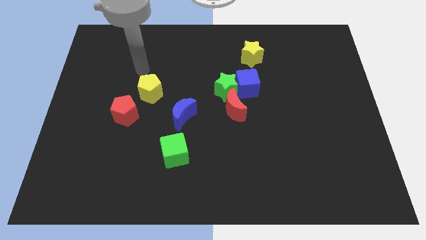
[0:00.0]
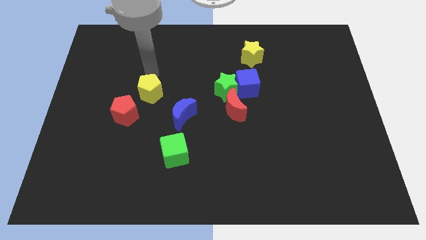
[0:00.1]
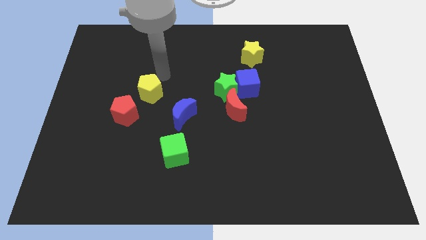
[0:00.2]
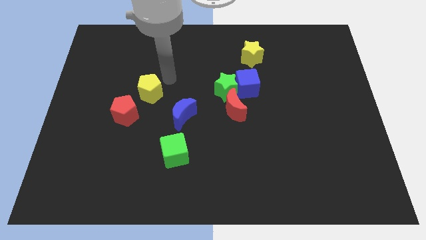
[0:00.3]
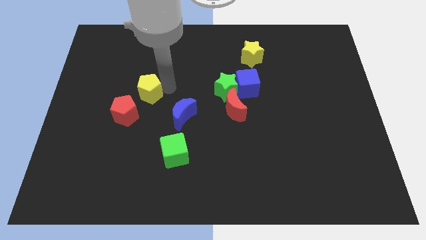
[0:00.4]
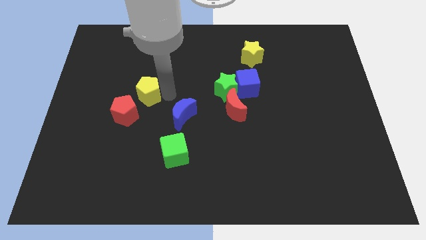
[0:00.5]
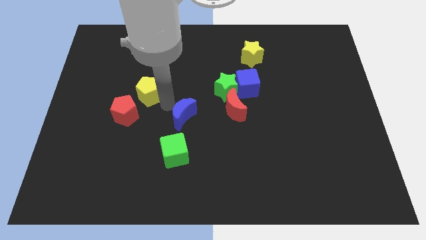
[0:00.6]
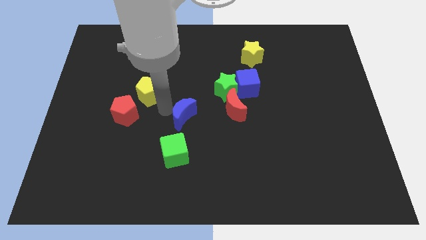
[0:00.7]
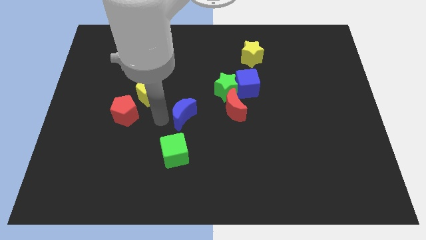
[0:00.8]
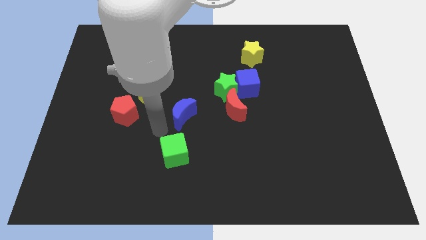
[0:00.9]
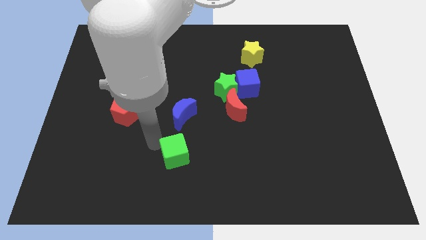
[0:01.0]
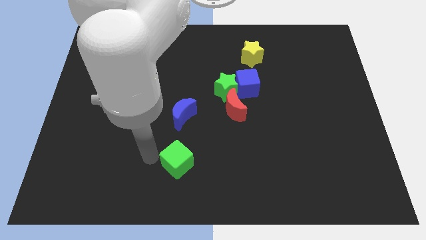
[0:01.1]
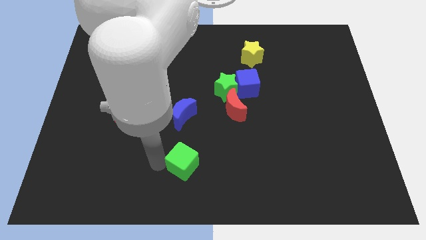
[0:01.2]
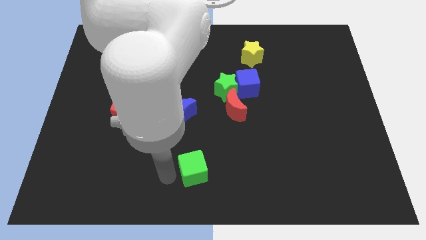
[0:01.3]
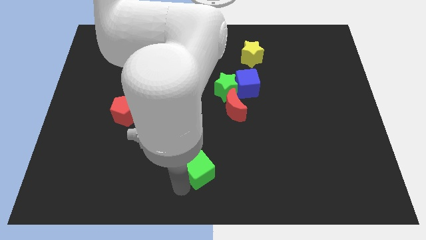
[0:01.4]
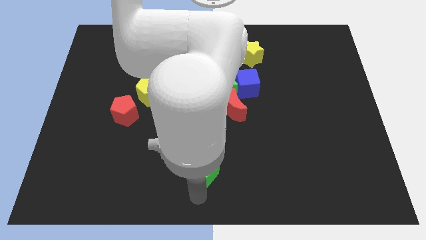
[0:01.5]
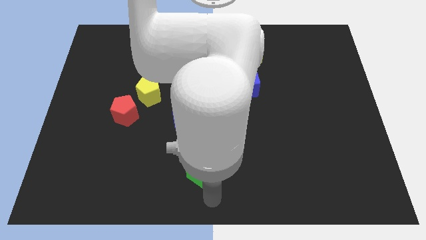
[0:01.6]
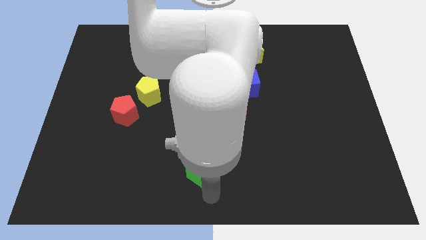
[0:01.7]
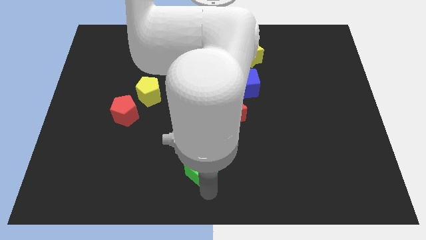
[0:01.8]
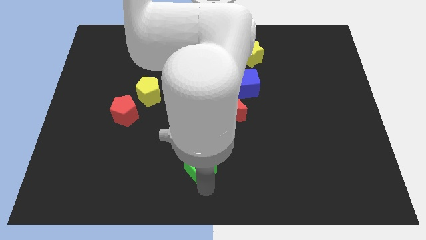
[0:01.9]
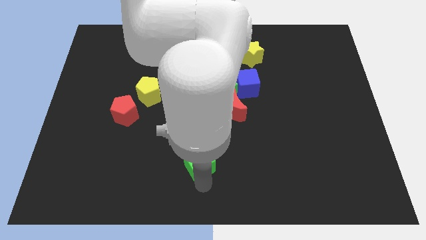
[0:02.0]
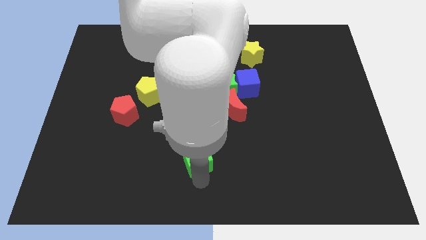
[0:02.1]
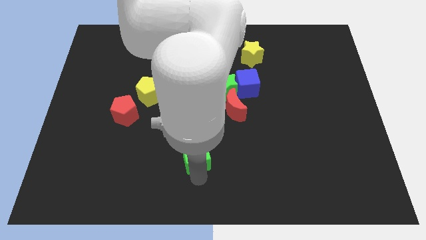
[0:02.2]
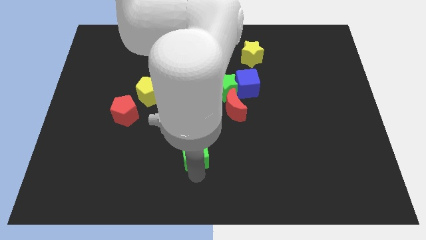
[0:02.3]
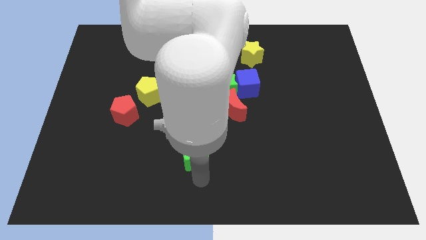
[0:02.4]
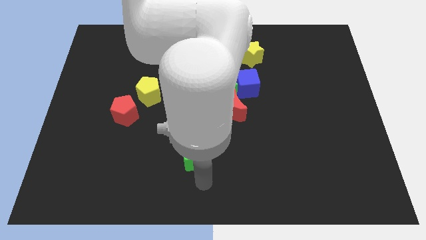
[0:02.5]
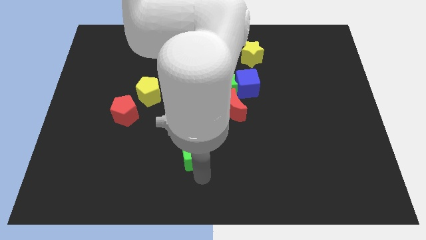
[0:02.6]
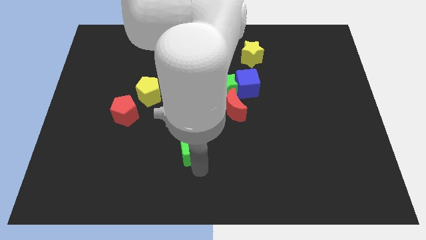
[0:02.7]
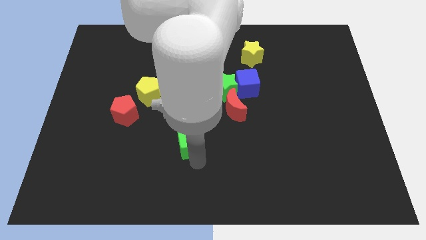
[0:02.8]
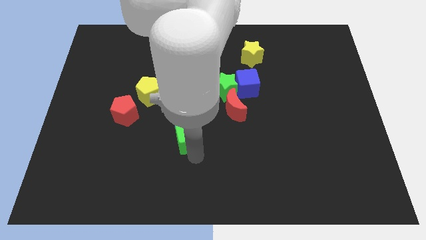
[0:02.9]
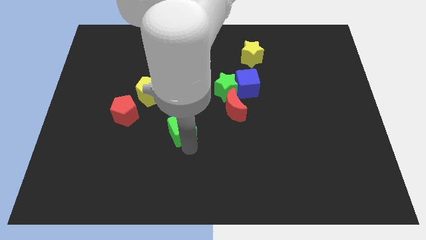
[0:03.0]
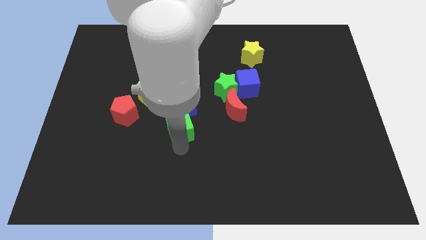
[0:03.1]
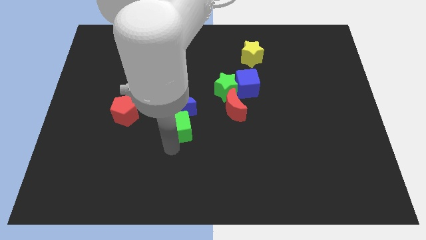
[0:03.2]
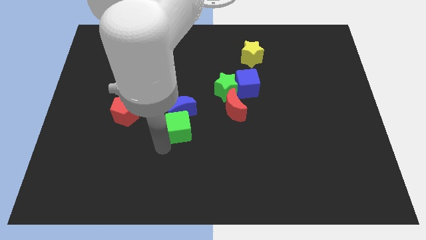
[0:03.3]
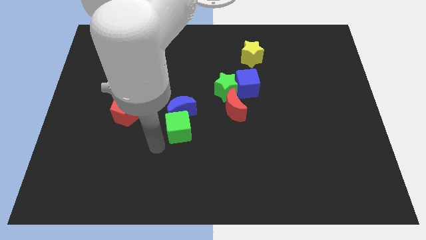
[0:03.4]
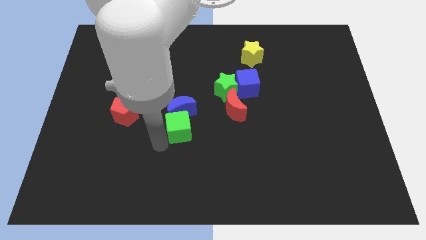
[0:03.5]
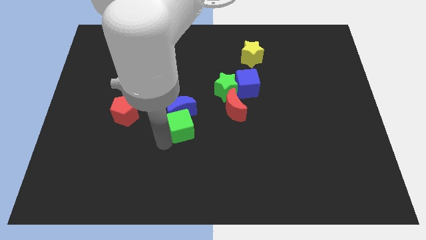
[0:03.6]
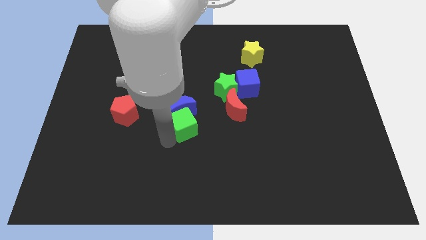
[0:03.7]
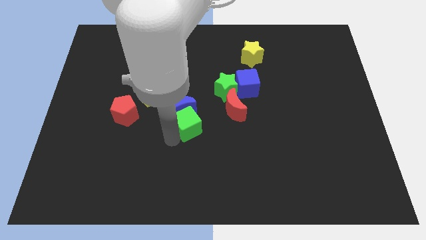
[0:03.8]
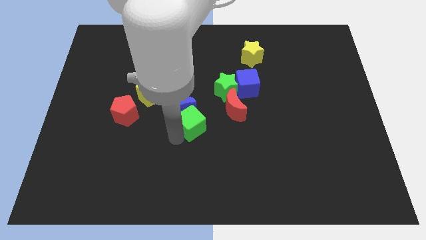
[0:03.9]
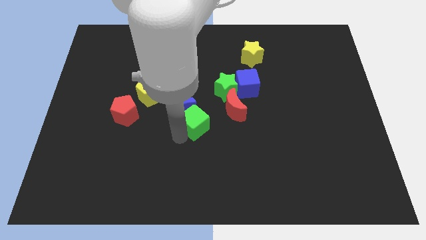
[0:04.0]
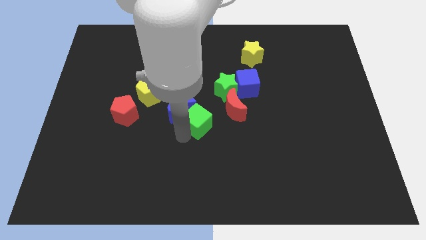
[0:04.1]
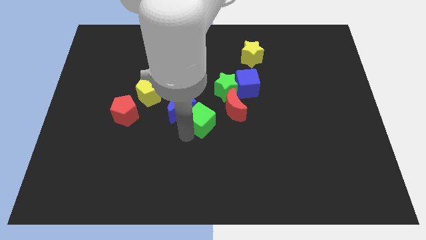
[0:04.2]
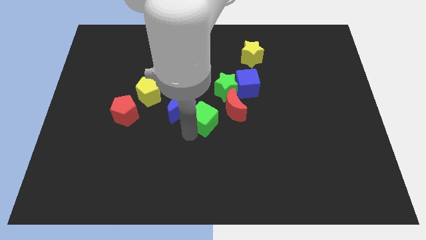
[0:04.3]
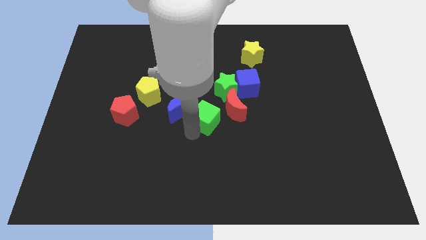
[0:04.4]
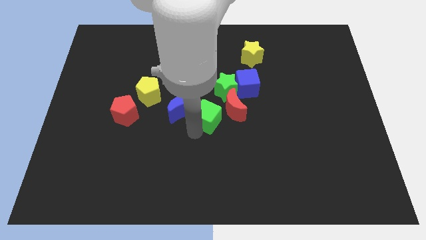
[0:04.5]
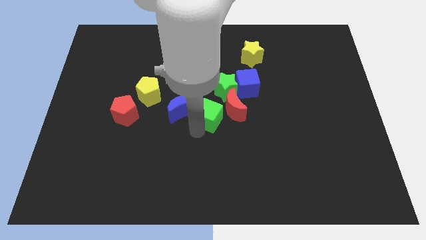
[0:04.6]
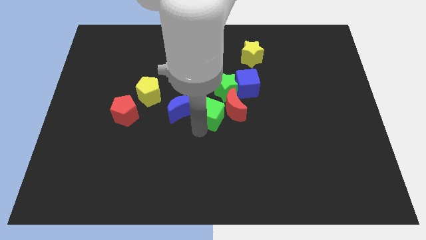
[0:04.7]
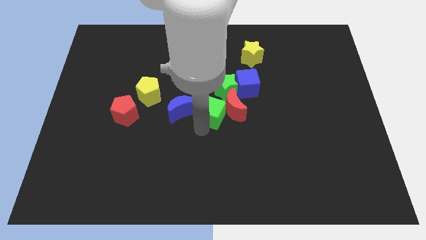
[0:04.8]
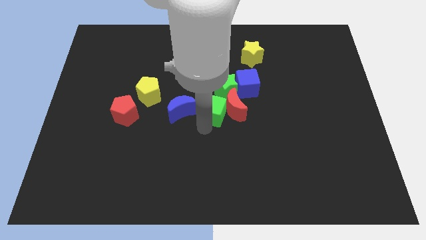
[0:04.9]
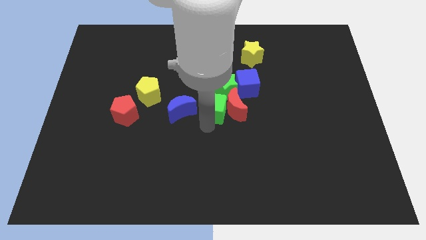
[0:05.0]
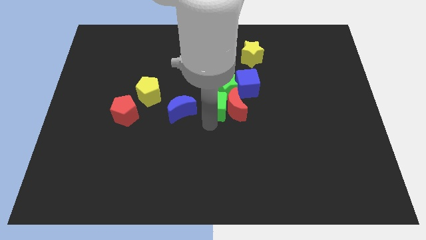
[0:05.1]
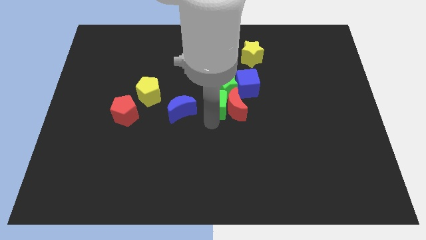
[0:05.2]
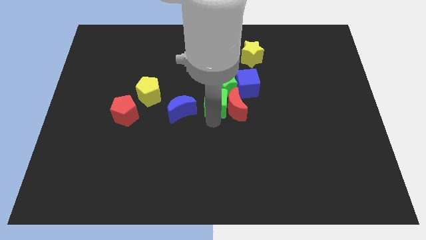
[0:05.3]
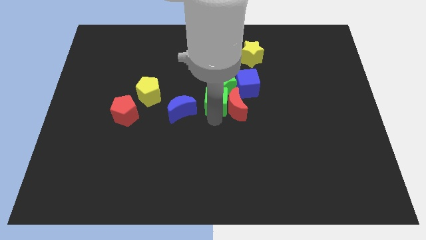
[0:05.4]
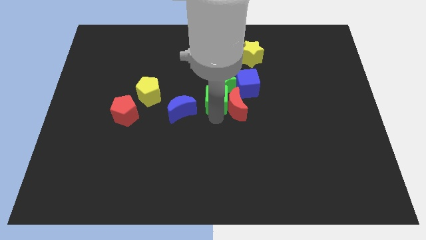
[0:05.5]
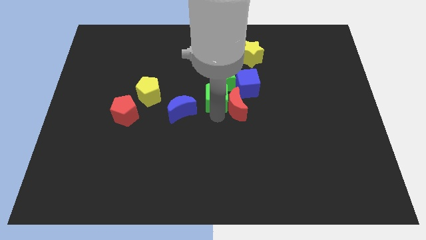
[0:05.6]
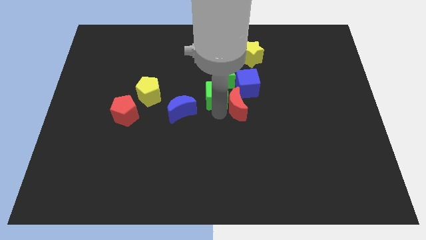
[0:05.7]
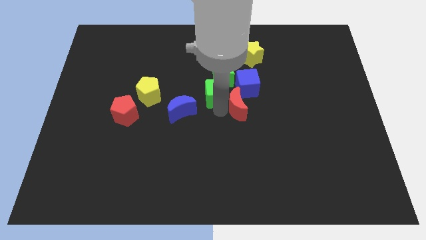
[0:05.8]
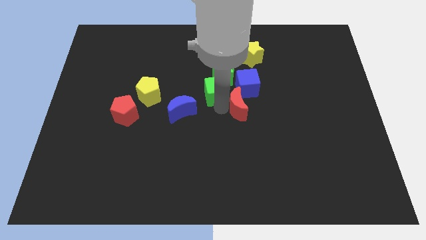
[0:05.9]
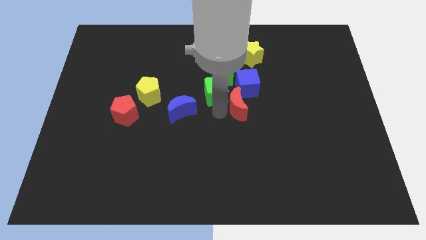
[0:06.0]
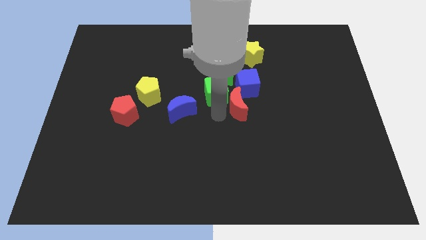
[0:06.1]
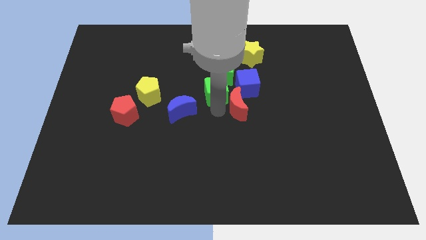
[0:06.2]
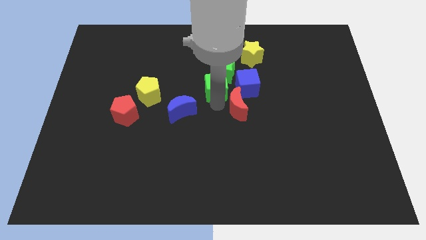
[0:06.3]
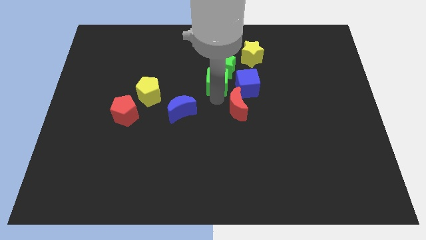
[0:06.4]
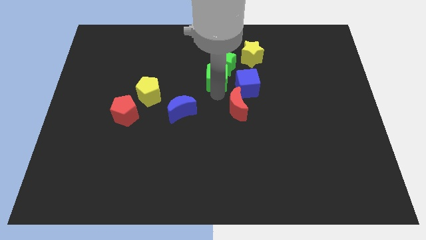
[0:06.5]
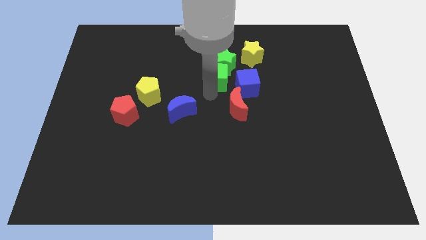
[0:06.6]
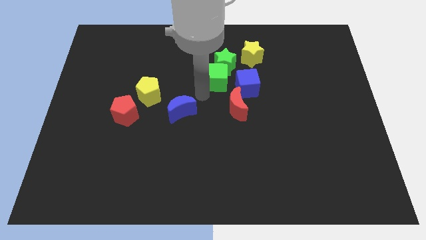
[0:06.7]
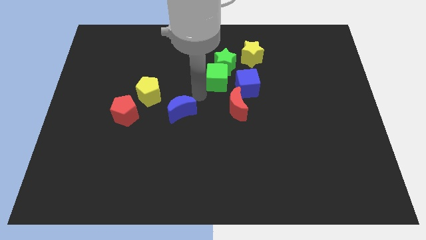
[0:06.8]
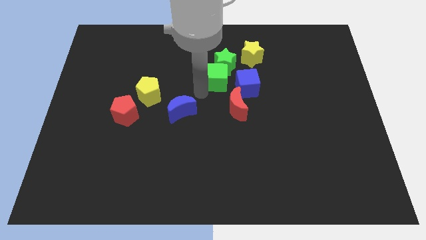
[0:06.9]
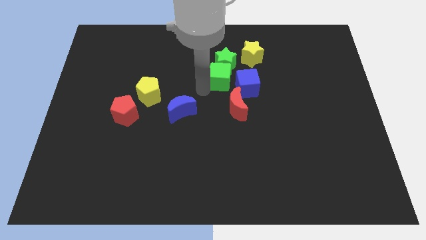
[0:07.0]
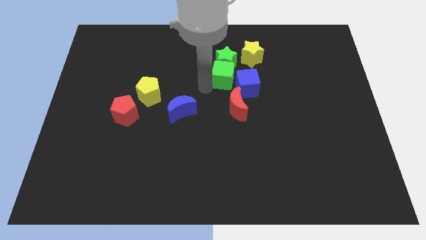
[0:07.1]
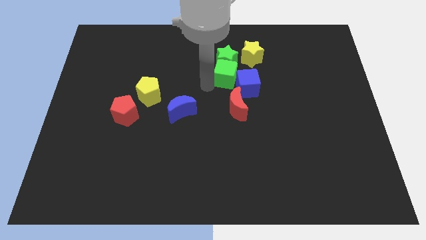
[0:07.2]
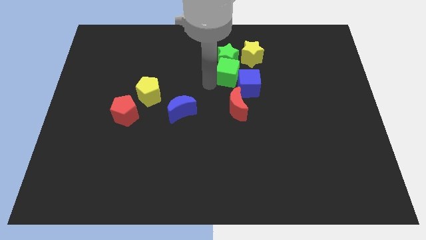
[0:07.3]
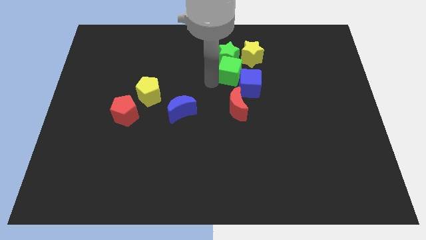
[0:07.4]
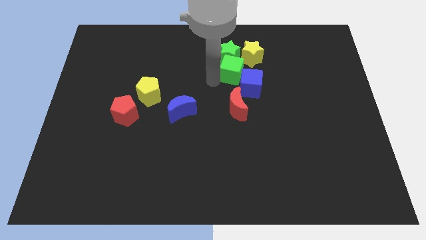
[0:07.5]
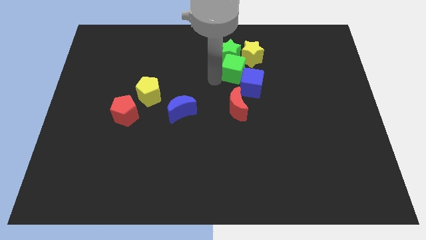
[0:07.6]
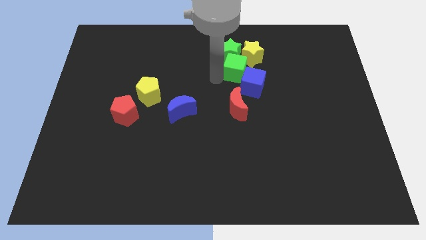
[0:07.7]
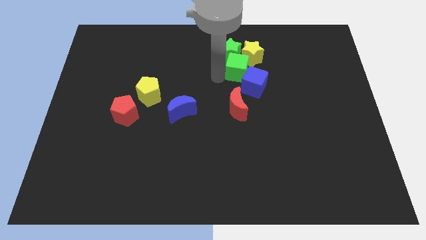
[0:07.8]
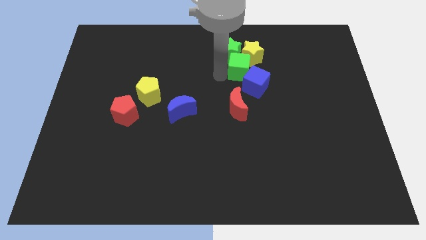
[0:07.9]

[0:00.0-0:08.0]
move the green cube towards the yellow star
